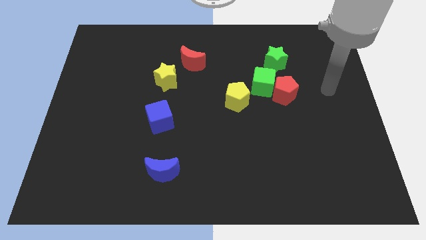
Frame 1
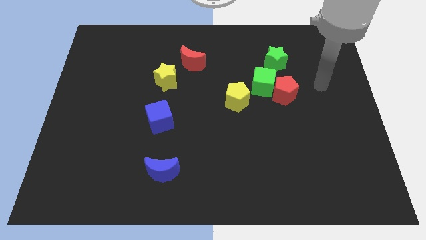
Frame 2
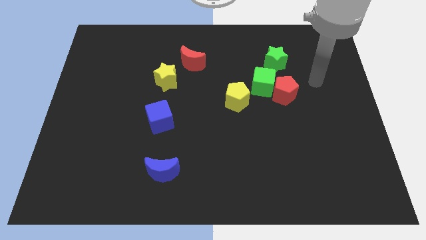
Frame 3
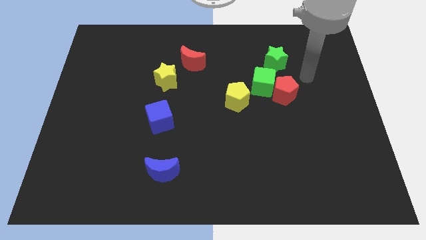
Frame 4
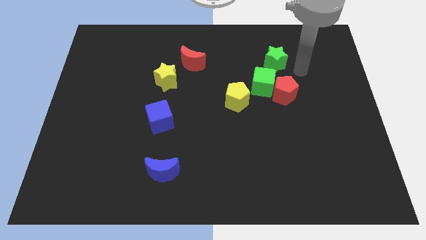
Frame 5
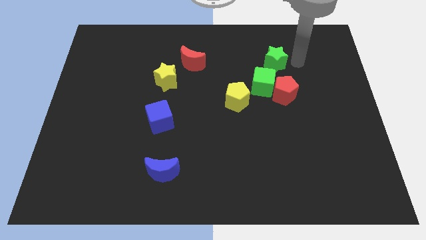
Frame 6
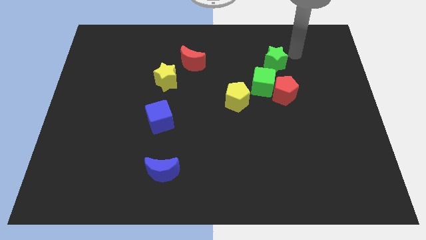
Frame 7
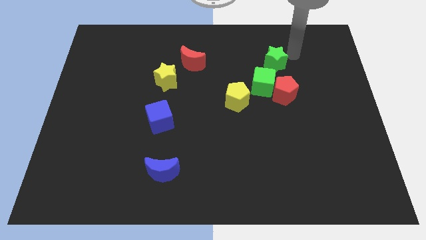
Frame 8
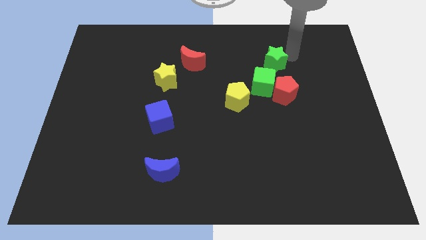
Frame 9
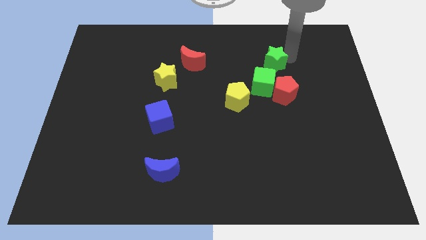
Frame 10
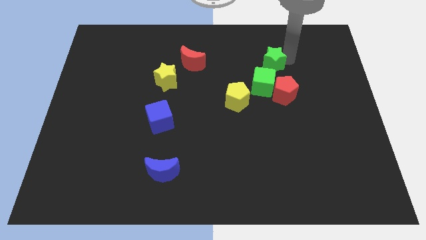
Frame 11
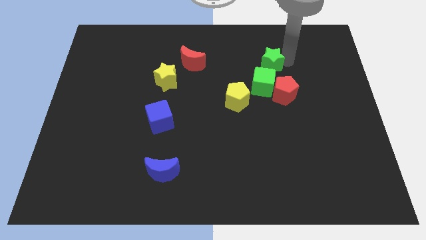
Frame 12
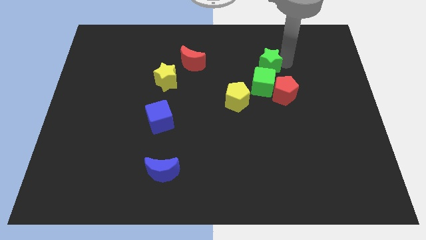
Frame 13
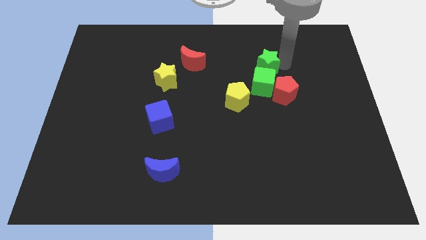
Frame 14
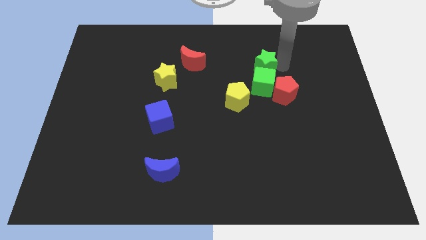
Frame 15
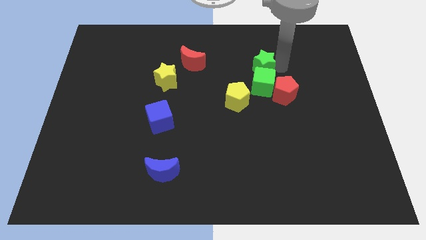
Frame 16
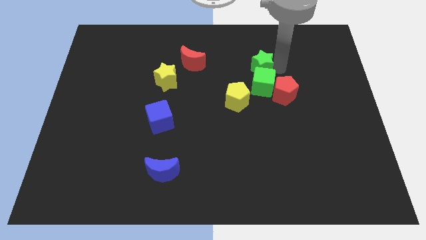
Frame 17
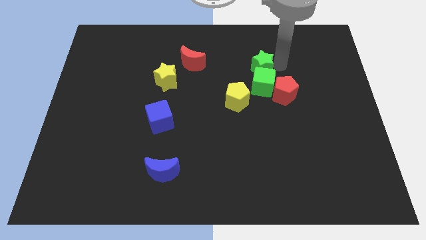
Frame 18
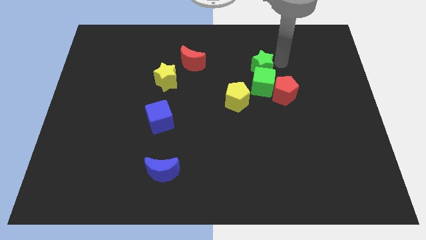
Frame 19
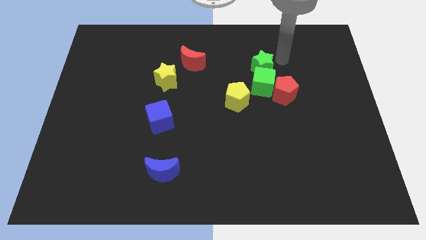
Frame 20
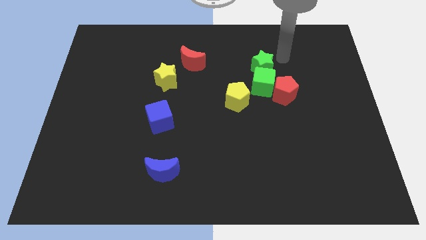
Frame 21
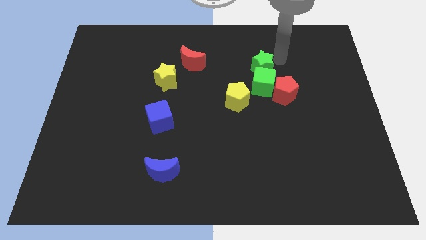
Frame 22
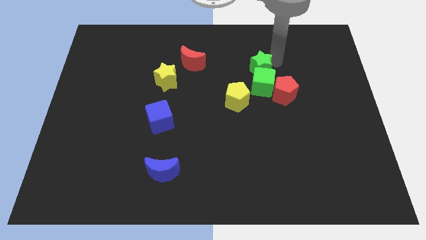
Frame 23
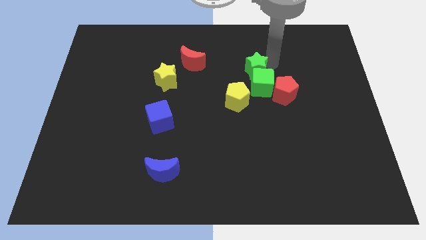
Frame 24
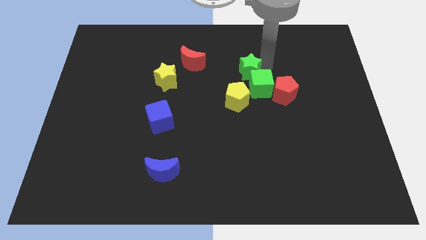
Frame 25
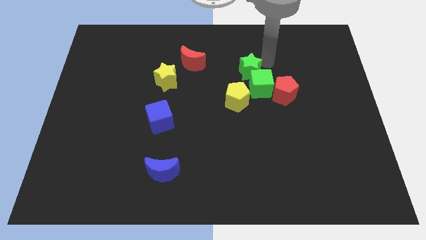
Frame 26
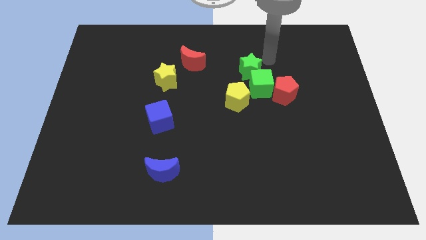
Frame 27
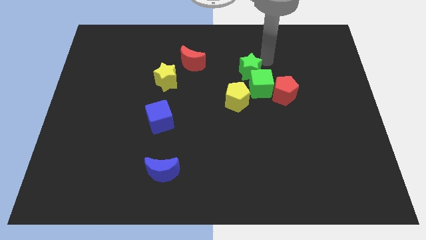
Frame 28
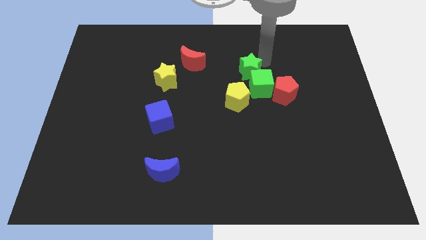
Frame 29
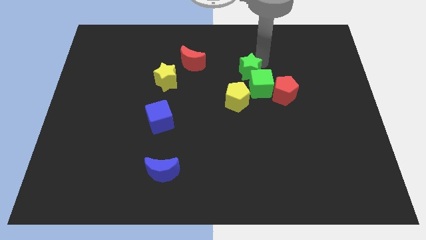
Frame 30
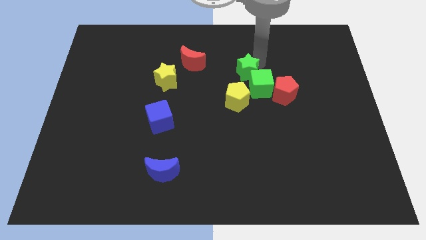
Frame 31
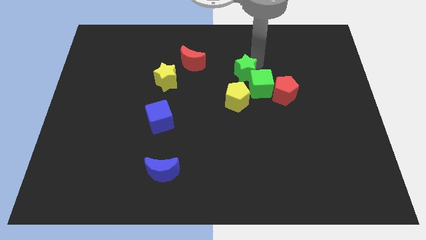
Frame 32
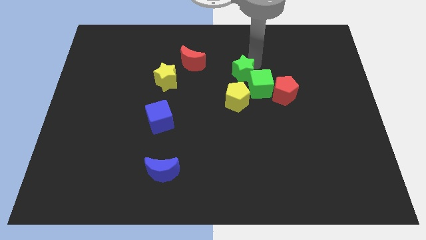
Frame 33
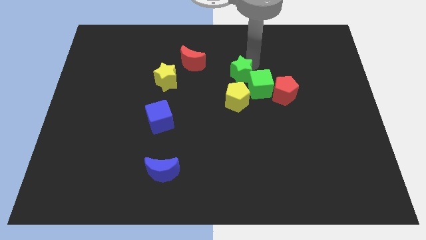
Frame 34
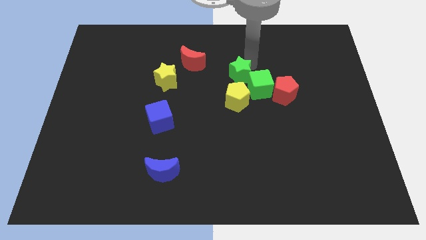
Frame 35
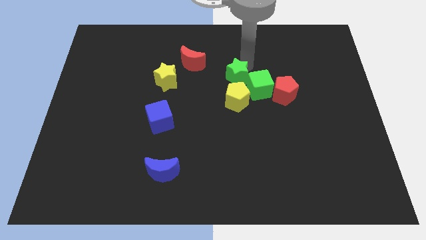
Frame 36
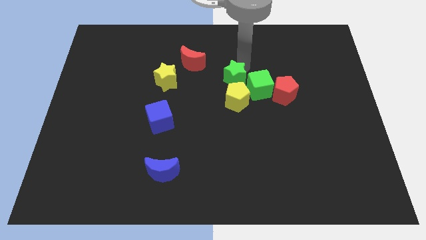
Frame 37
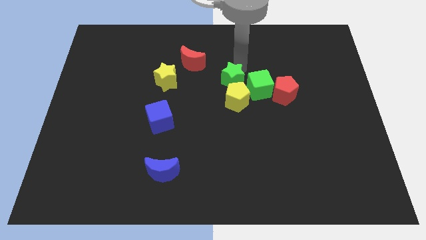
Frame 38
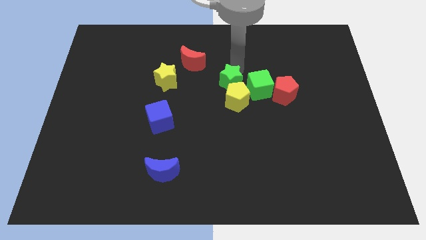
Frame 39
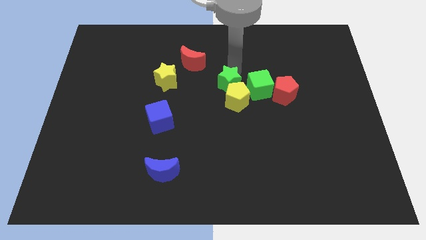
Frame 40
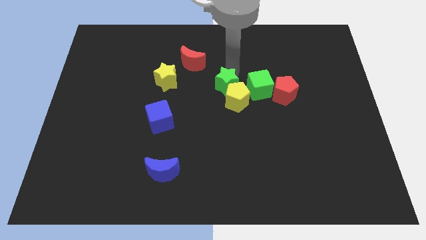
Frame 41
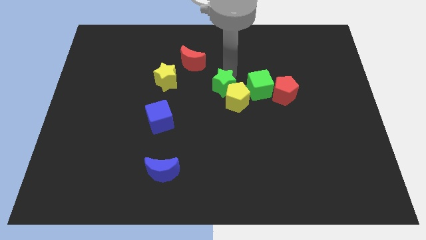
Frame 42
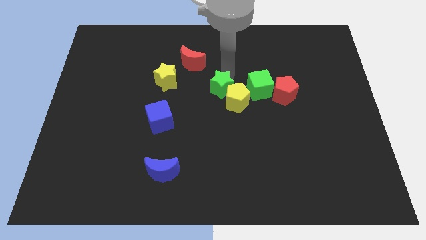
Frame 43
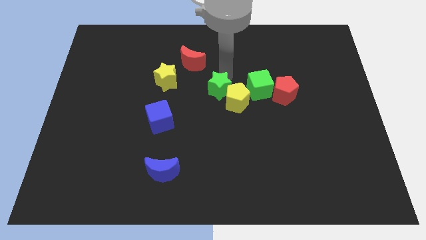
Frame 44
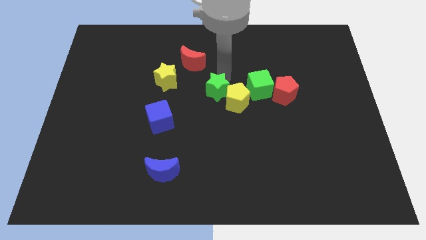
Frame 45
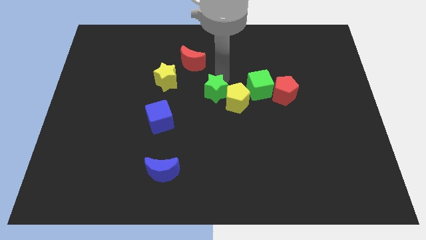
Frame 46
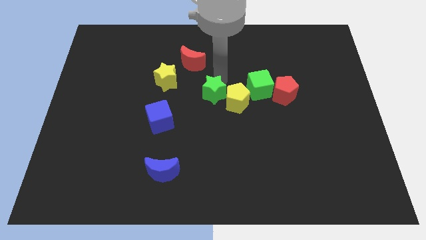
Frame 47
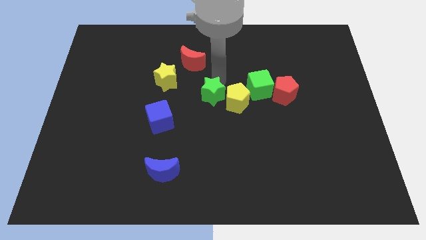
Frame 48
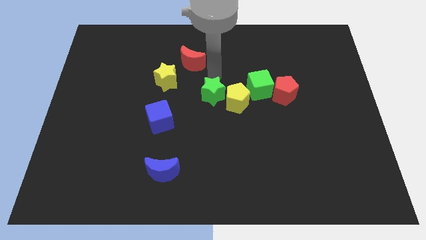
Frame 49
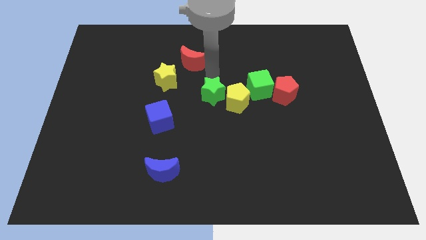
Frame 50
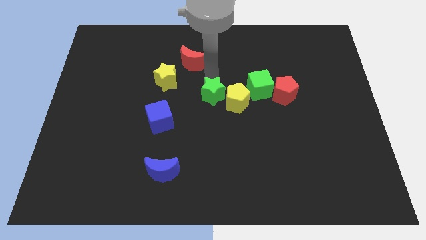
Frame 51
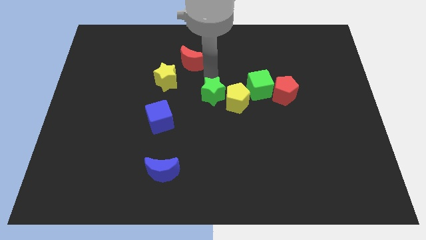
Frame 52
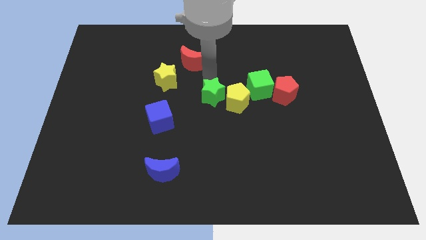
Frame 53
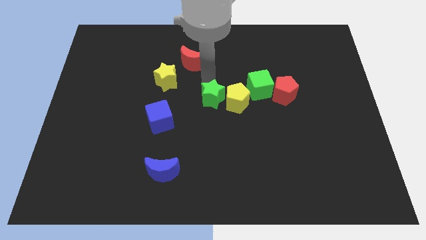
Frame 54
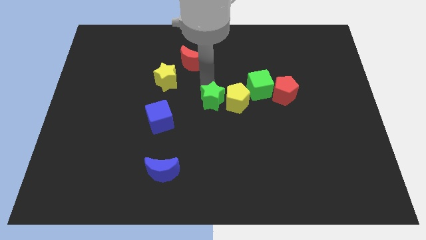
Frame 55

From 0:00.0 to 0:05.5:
slide the green star diagonally down and to the left of the yellow pentagon

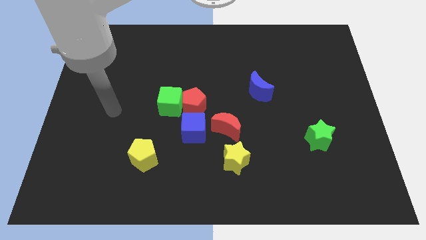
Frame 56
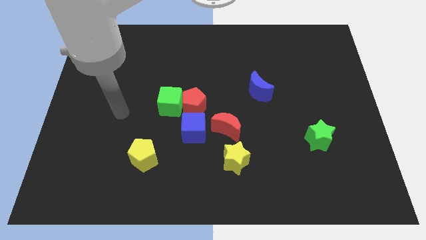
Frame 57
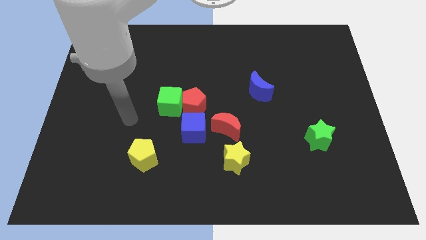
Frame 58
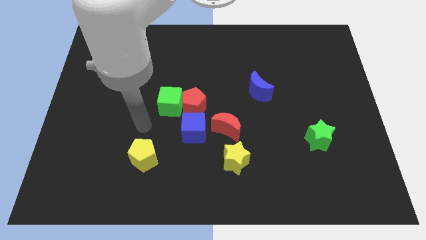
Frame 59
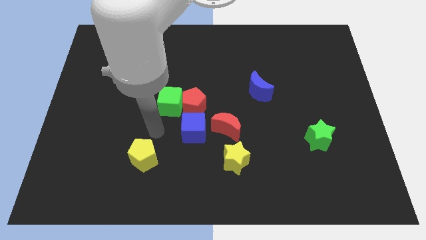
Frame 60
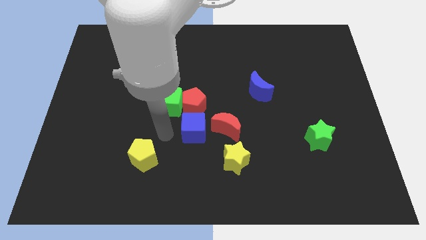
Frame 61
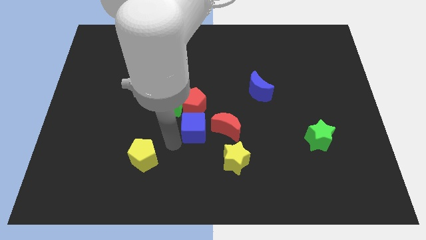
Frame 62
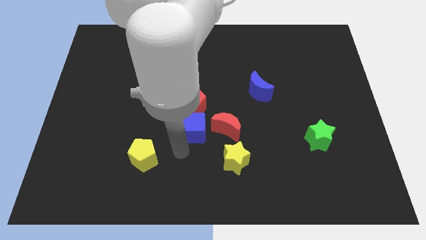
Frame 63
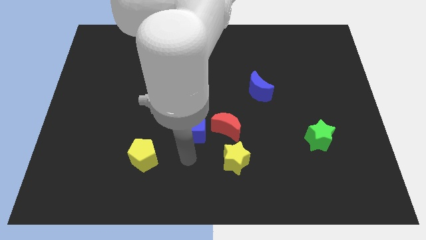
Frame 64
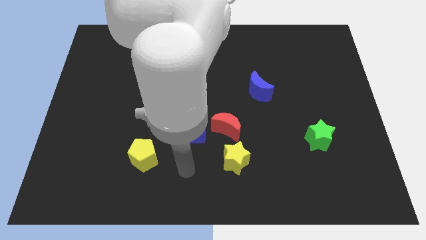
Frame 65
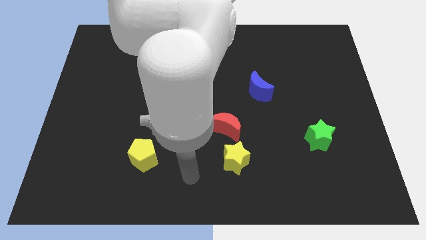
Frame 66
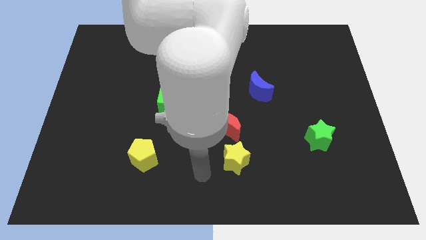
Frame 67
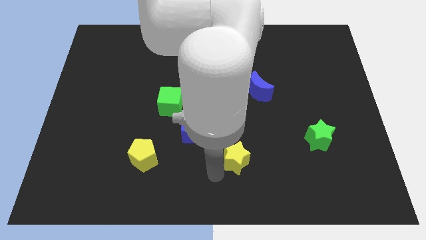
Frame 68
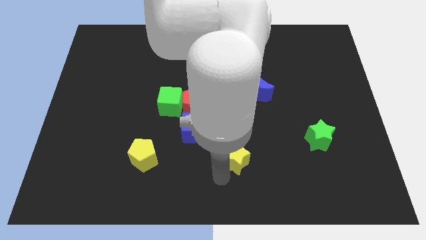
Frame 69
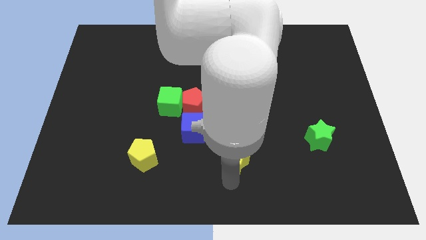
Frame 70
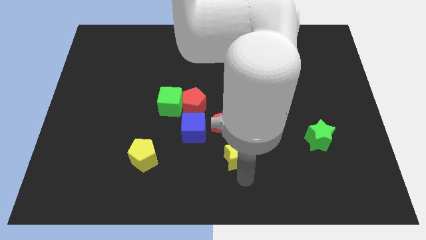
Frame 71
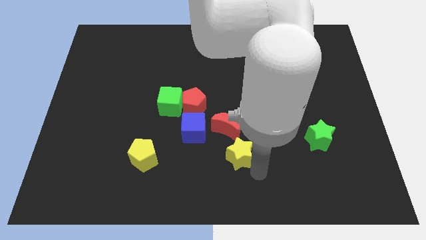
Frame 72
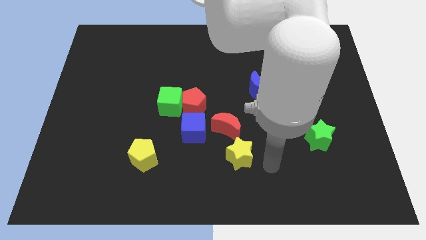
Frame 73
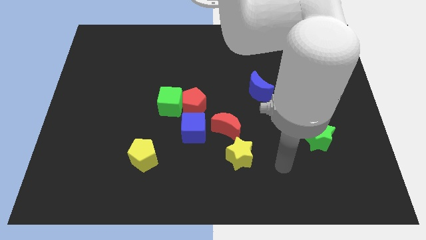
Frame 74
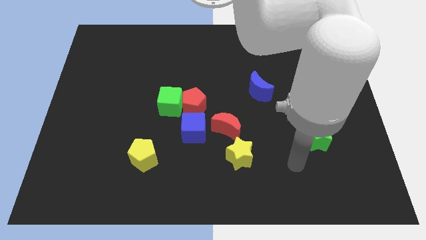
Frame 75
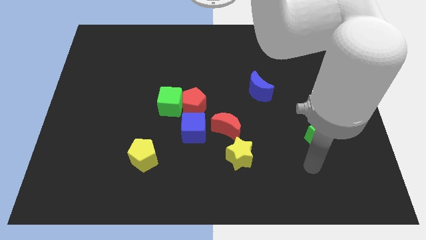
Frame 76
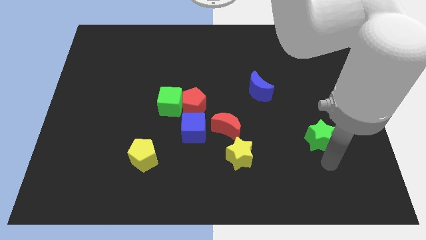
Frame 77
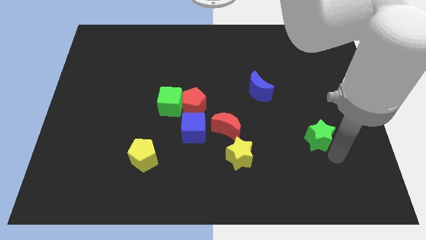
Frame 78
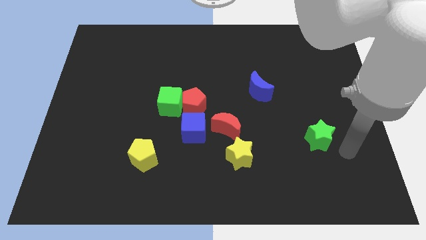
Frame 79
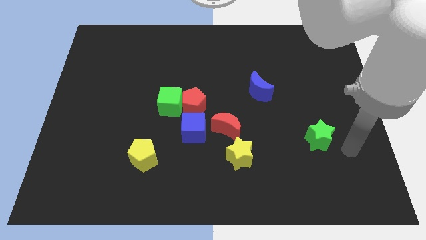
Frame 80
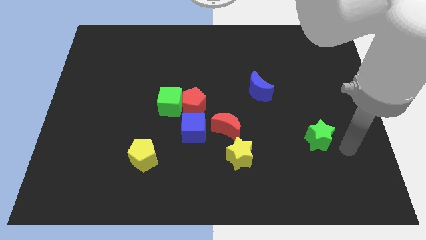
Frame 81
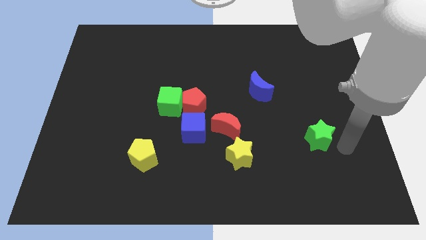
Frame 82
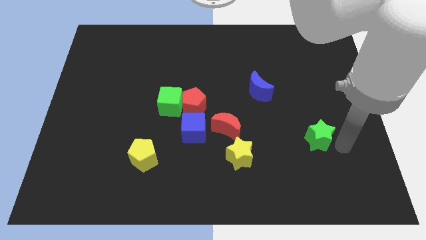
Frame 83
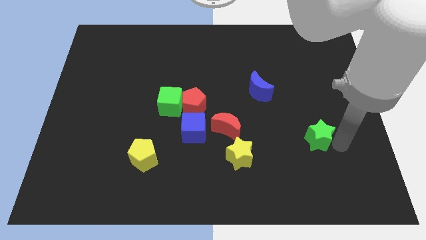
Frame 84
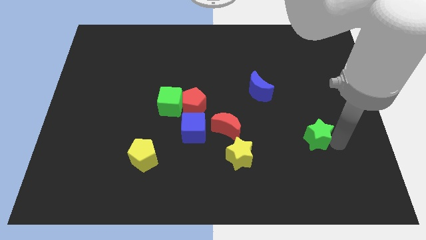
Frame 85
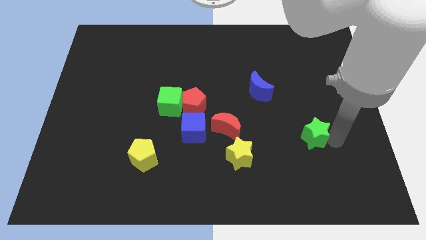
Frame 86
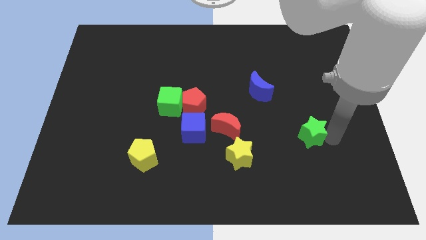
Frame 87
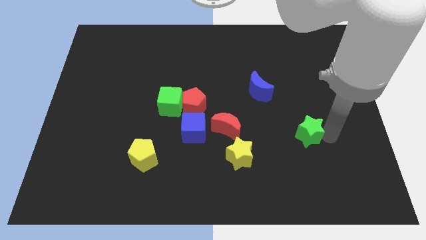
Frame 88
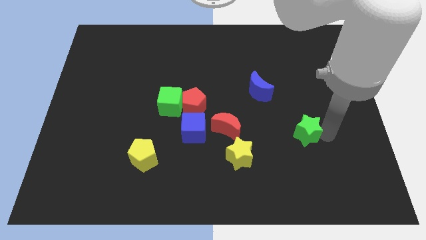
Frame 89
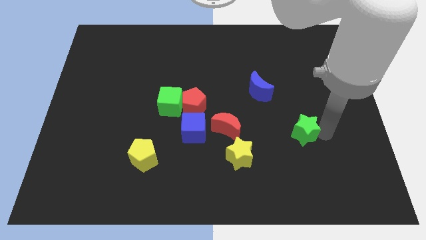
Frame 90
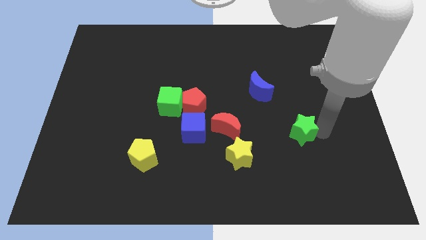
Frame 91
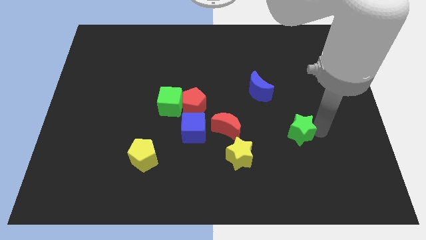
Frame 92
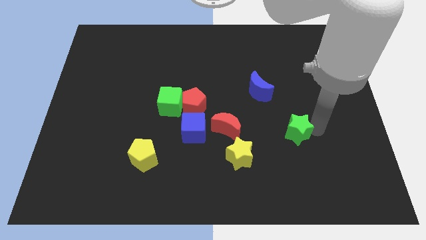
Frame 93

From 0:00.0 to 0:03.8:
move the green star right of the red moon
